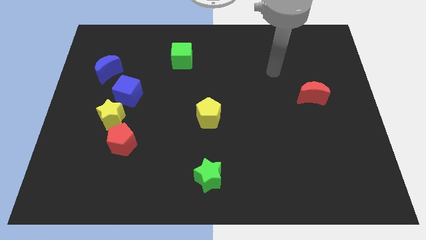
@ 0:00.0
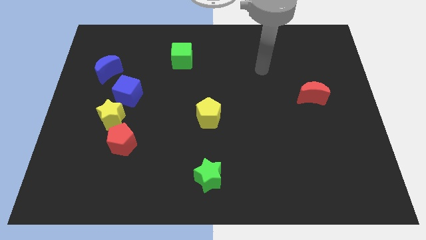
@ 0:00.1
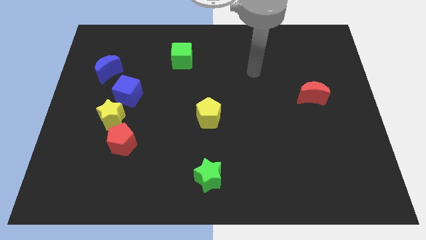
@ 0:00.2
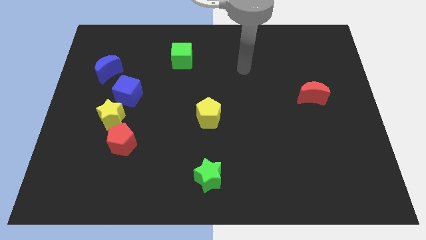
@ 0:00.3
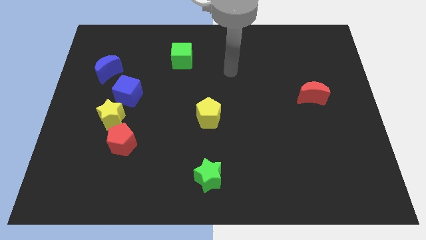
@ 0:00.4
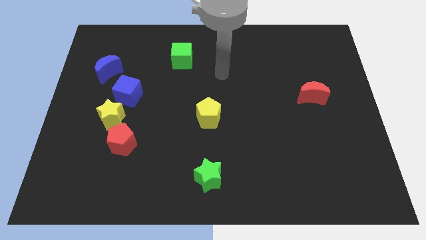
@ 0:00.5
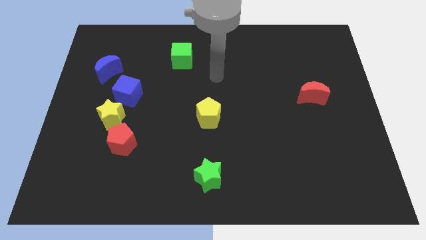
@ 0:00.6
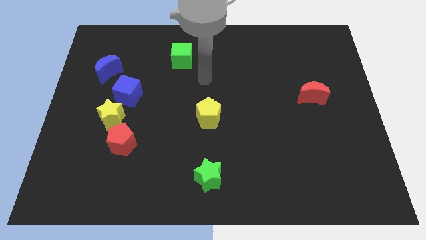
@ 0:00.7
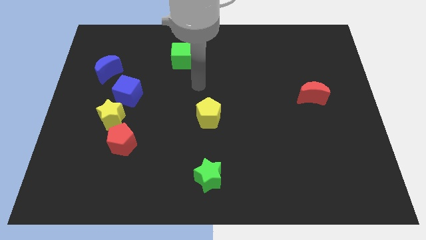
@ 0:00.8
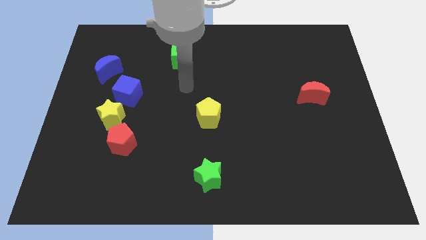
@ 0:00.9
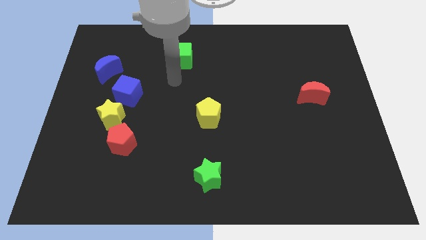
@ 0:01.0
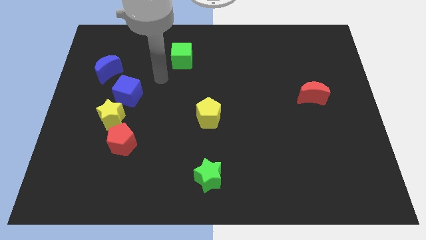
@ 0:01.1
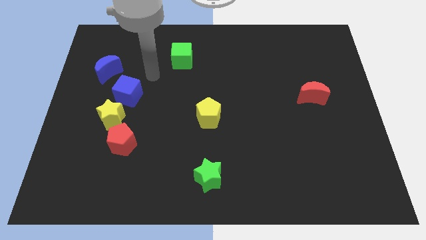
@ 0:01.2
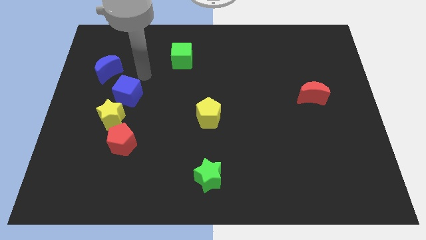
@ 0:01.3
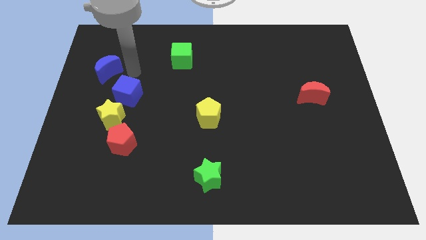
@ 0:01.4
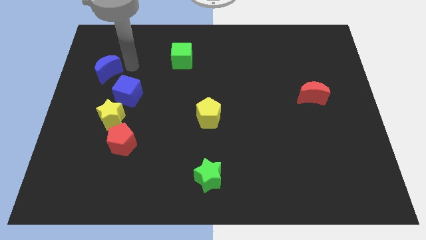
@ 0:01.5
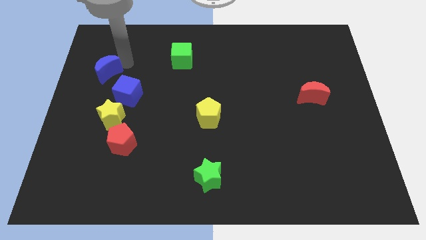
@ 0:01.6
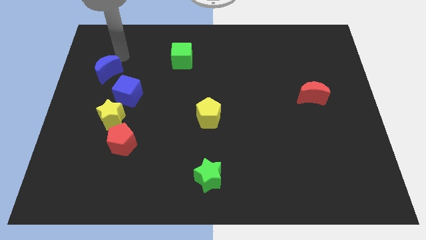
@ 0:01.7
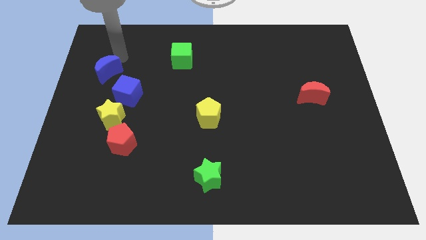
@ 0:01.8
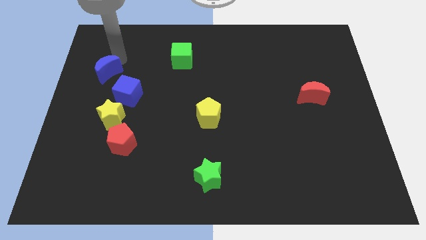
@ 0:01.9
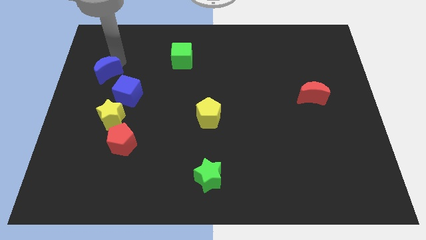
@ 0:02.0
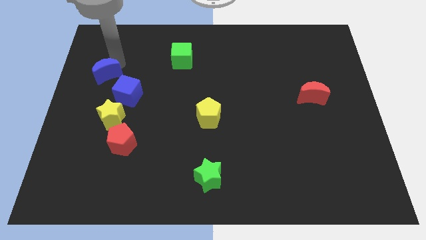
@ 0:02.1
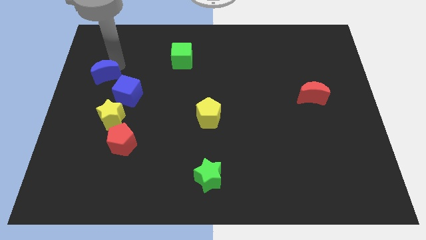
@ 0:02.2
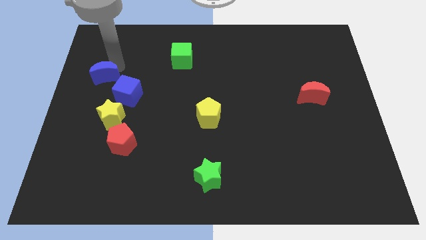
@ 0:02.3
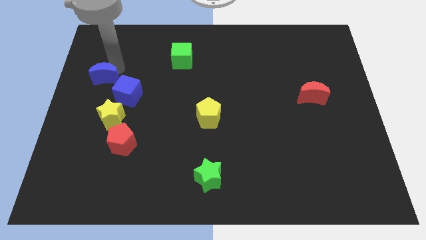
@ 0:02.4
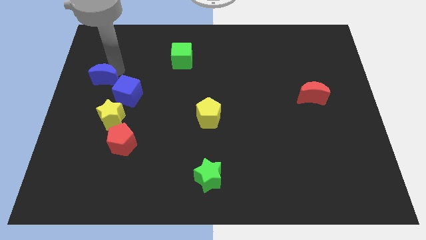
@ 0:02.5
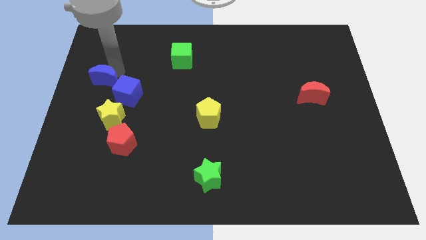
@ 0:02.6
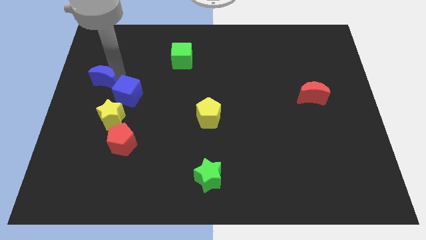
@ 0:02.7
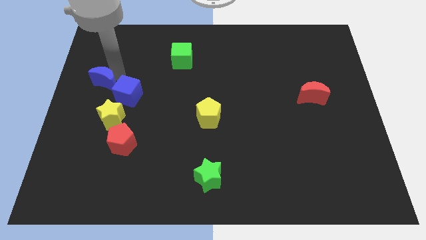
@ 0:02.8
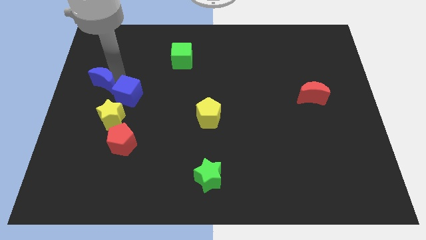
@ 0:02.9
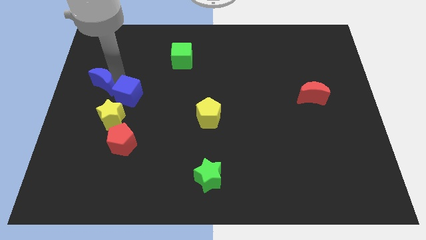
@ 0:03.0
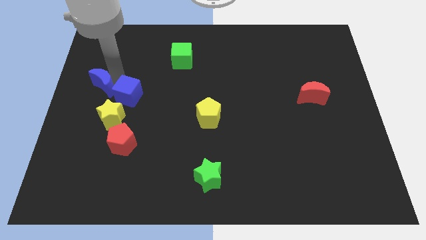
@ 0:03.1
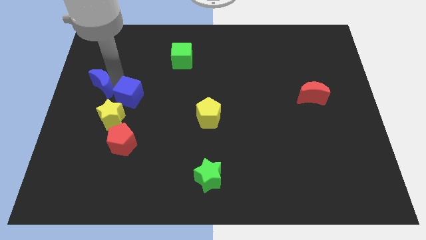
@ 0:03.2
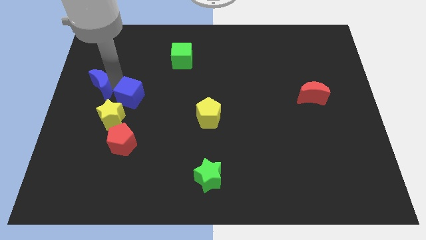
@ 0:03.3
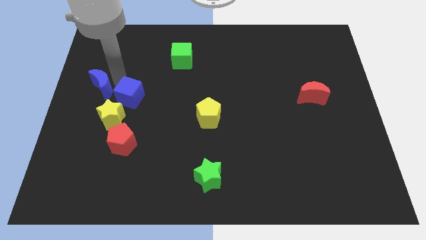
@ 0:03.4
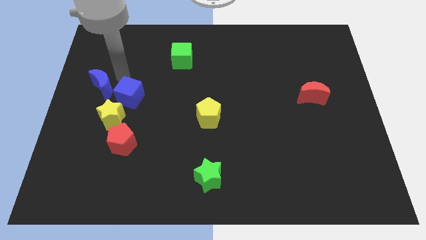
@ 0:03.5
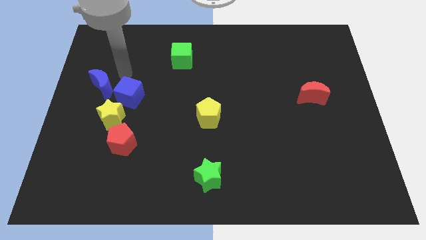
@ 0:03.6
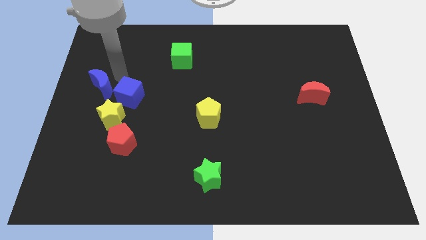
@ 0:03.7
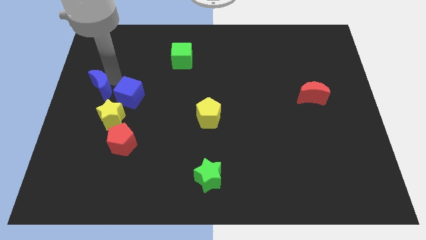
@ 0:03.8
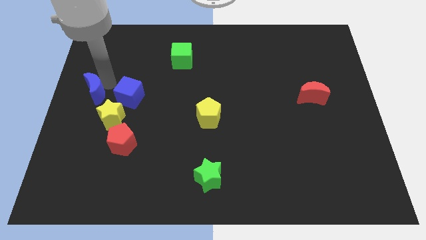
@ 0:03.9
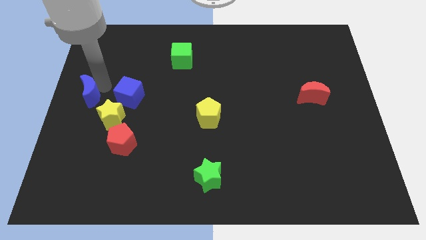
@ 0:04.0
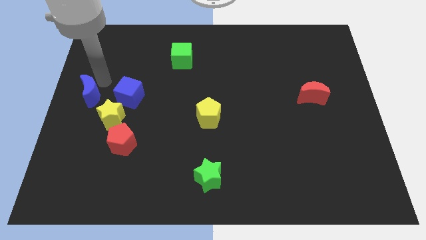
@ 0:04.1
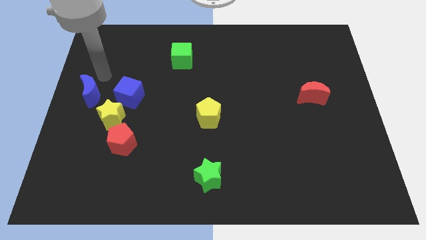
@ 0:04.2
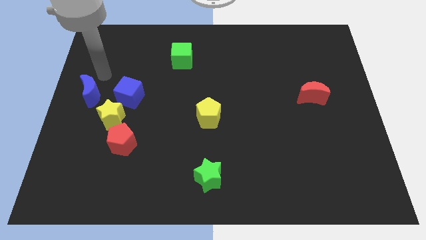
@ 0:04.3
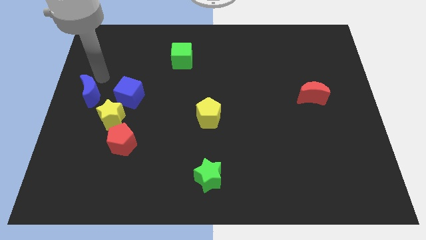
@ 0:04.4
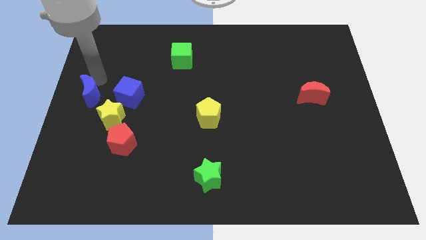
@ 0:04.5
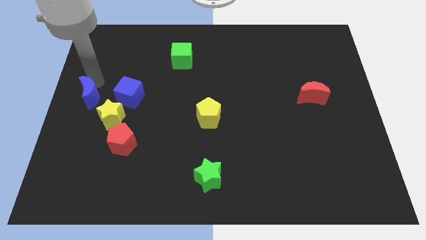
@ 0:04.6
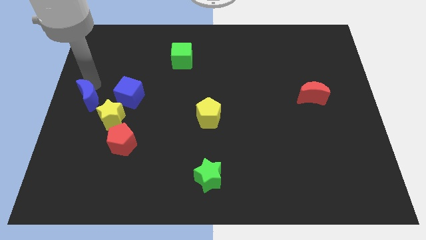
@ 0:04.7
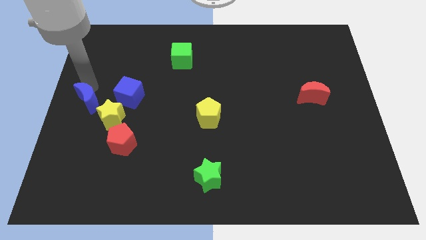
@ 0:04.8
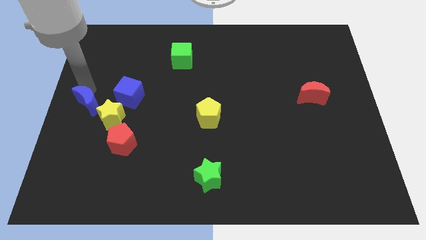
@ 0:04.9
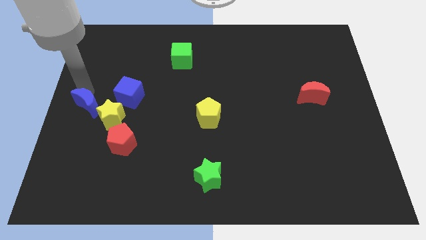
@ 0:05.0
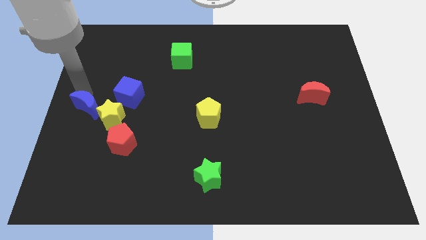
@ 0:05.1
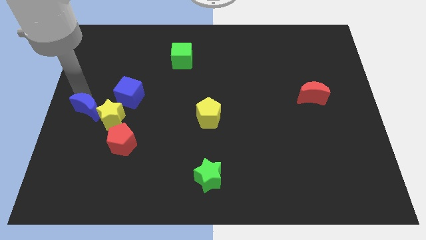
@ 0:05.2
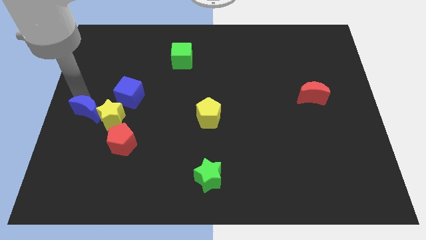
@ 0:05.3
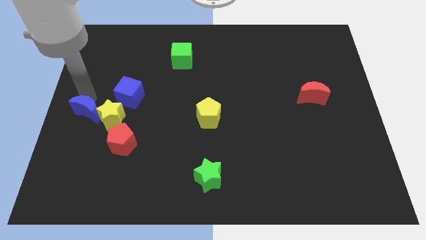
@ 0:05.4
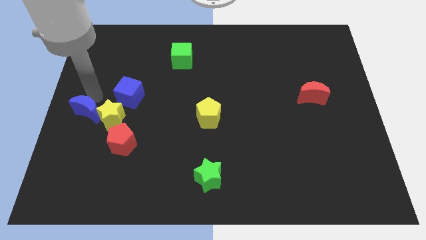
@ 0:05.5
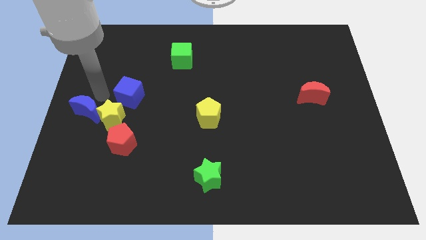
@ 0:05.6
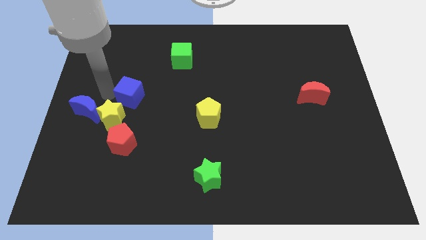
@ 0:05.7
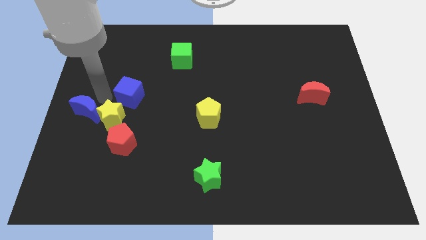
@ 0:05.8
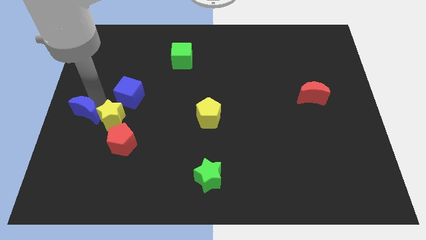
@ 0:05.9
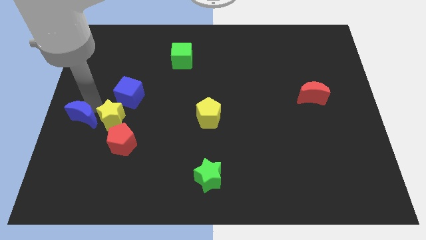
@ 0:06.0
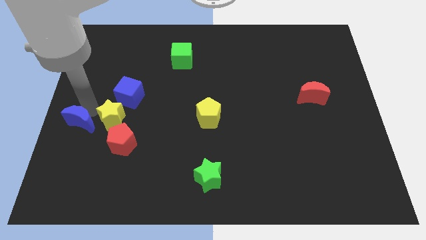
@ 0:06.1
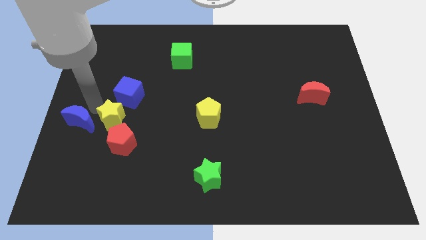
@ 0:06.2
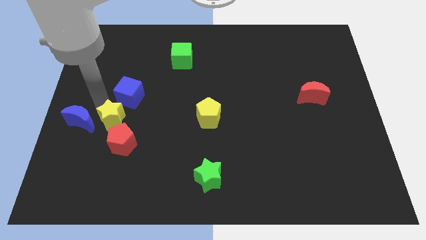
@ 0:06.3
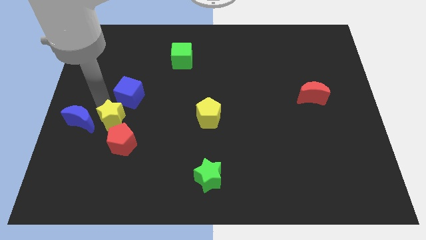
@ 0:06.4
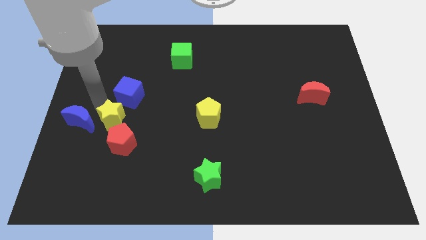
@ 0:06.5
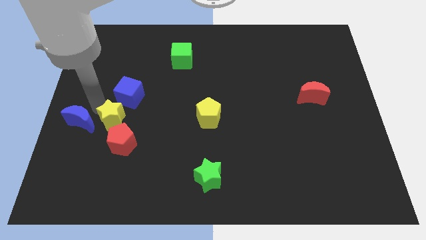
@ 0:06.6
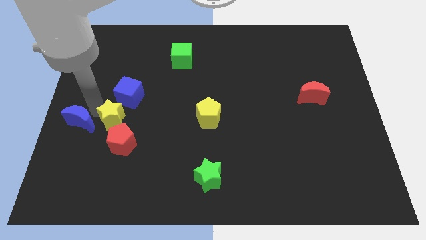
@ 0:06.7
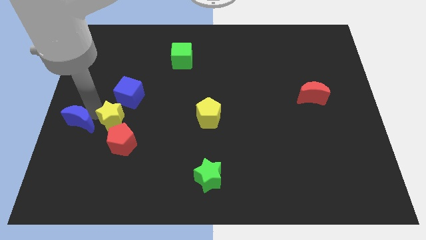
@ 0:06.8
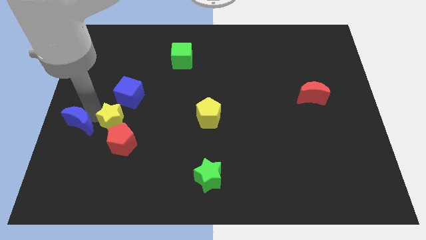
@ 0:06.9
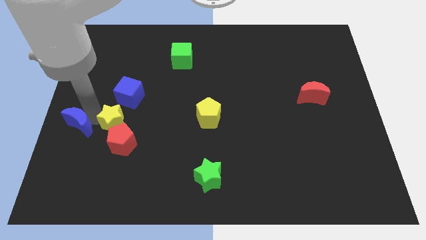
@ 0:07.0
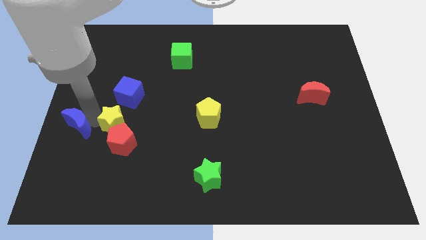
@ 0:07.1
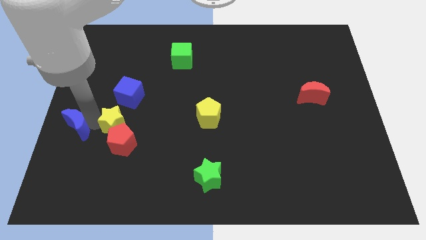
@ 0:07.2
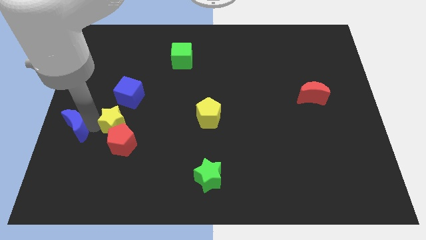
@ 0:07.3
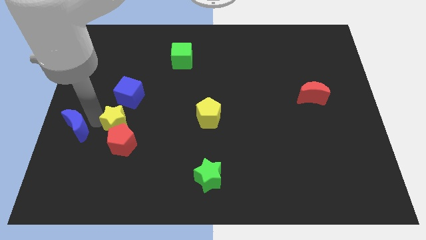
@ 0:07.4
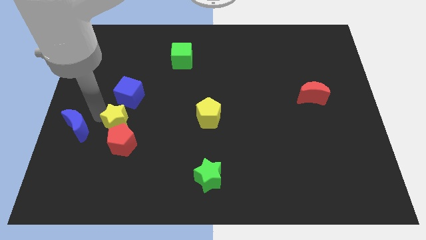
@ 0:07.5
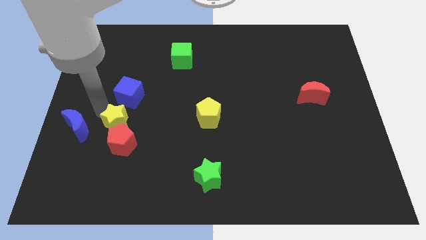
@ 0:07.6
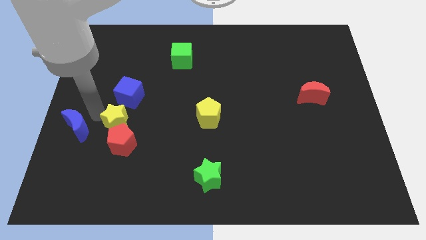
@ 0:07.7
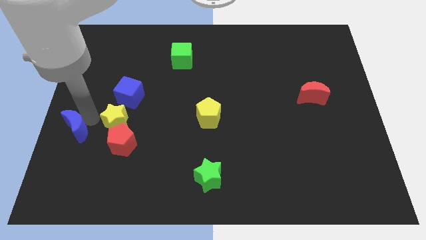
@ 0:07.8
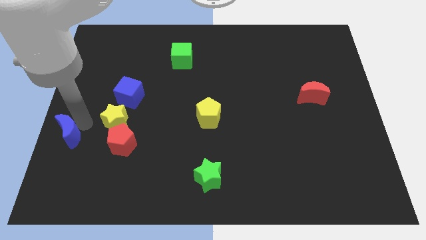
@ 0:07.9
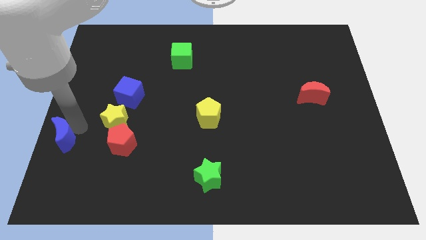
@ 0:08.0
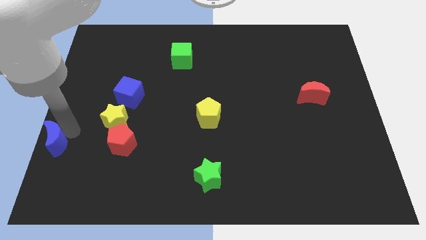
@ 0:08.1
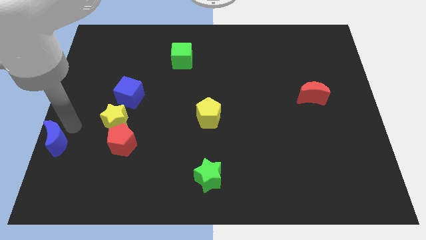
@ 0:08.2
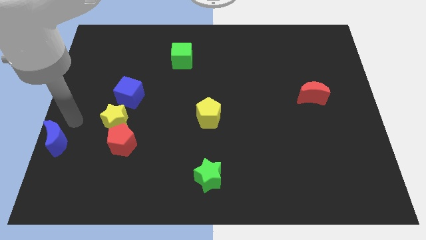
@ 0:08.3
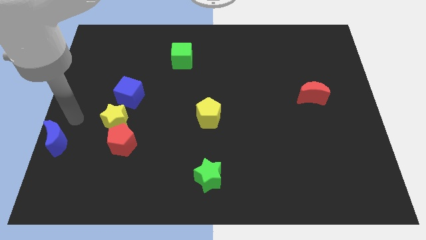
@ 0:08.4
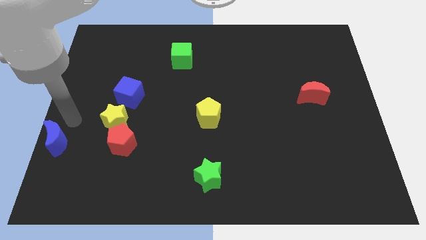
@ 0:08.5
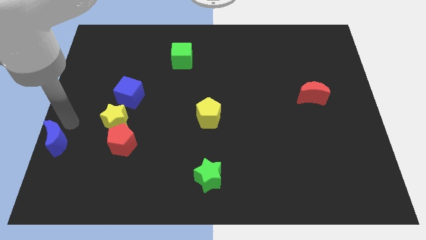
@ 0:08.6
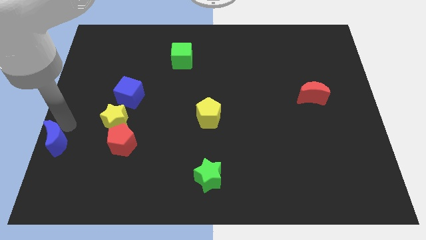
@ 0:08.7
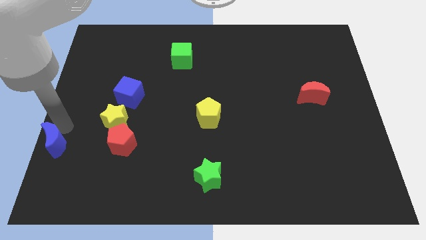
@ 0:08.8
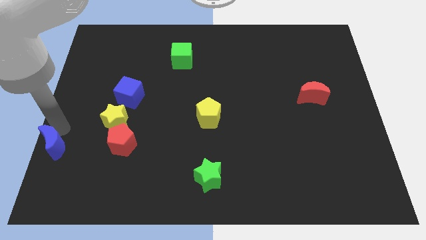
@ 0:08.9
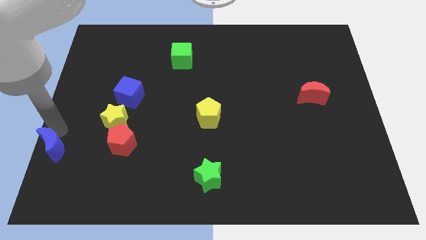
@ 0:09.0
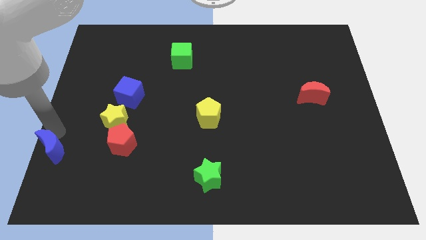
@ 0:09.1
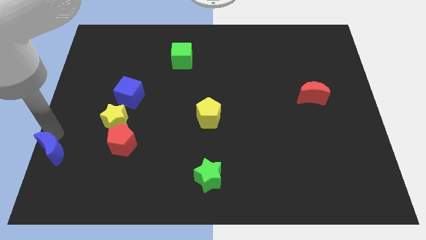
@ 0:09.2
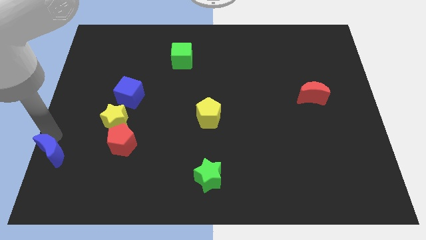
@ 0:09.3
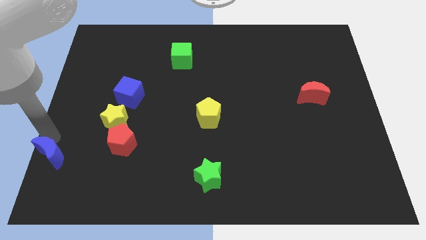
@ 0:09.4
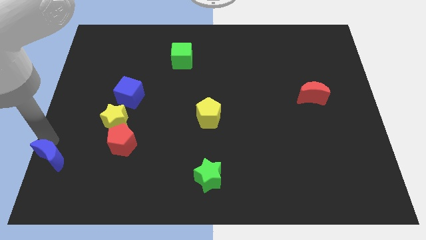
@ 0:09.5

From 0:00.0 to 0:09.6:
push the blue moon to the bottom left
